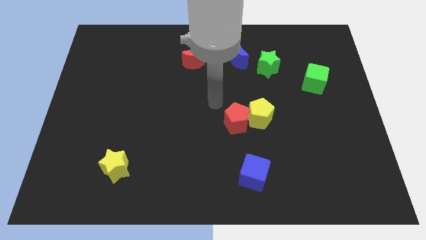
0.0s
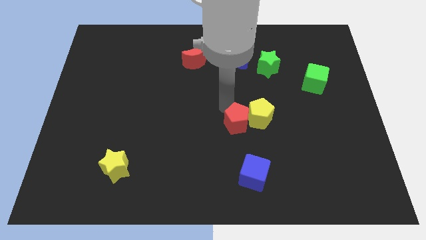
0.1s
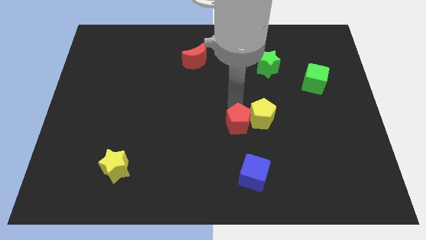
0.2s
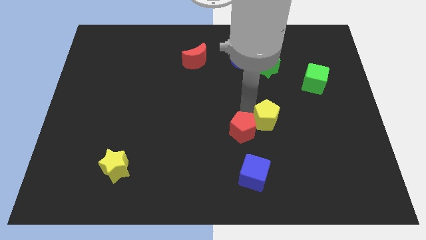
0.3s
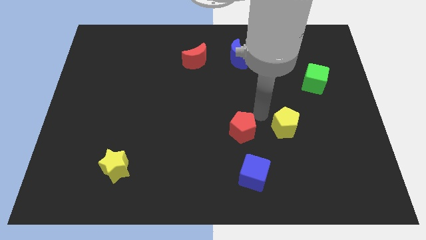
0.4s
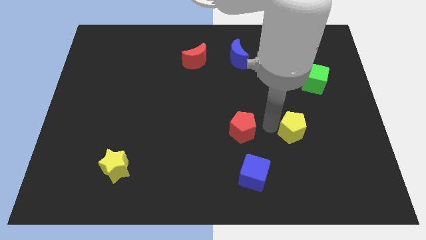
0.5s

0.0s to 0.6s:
move the red pentagon away from the yellow pentagon

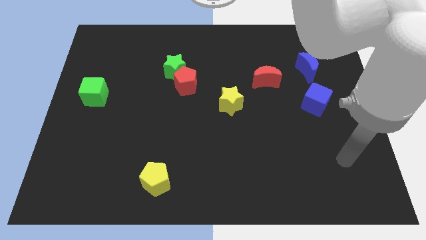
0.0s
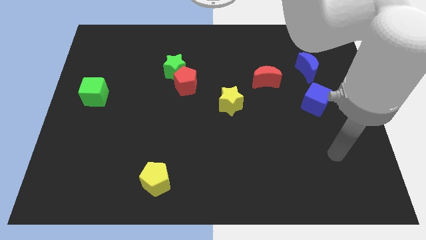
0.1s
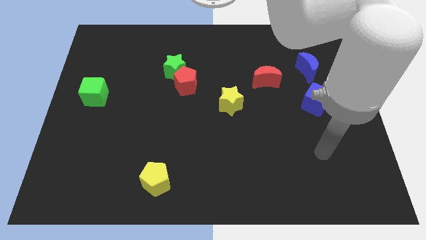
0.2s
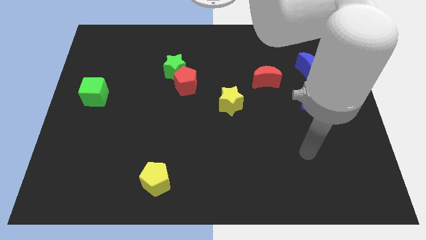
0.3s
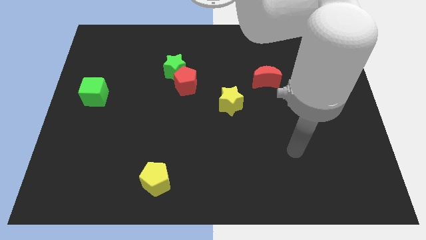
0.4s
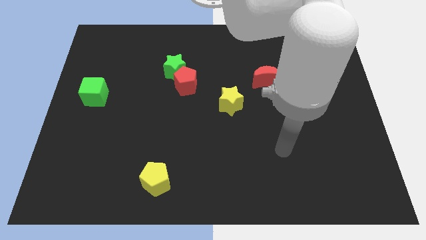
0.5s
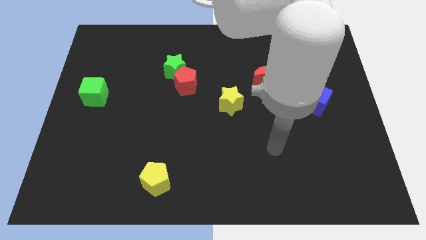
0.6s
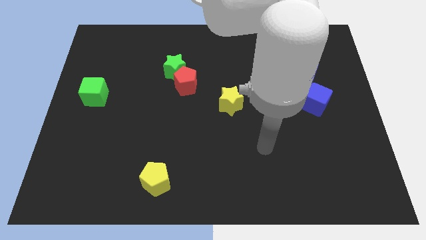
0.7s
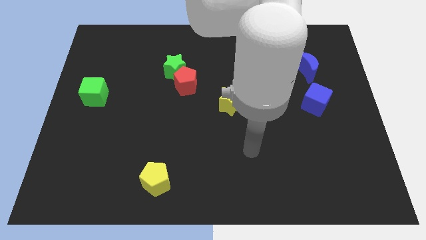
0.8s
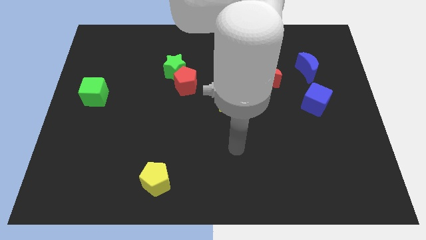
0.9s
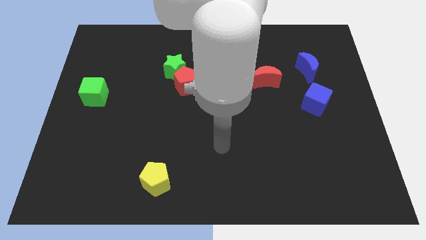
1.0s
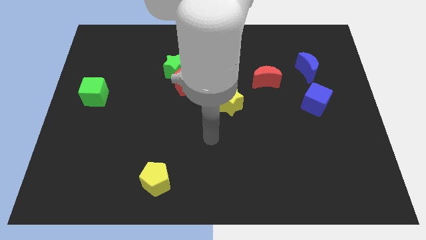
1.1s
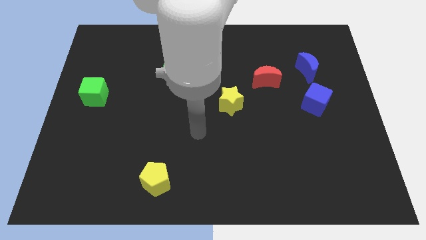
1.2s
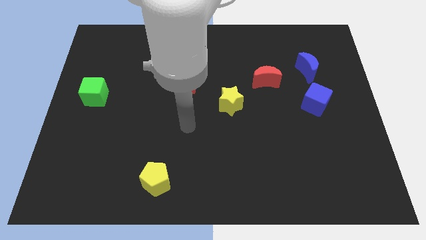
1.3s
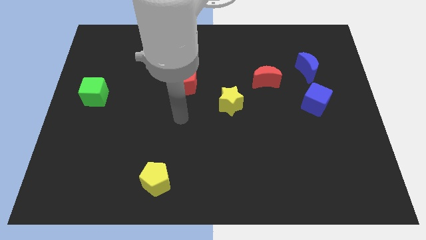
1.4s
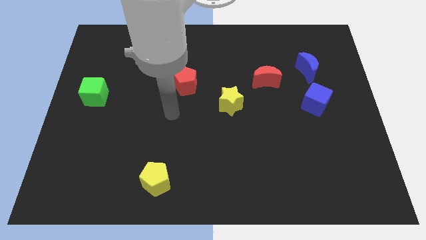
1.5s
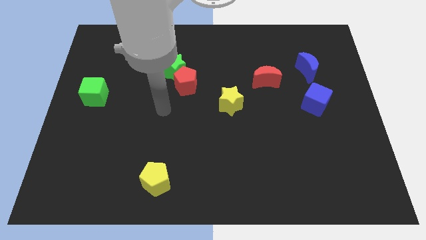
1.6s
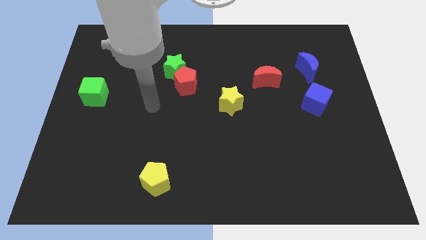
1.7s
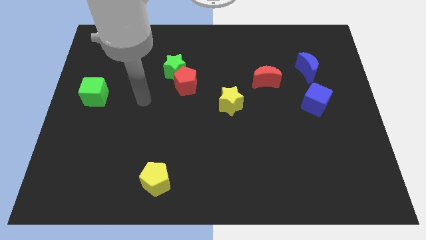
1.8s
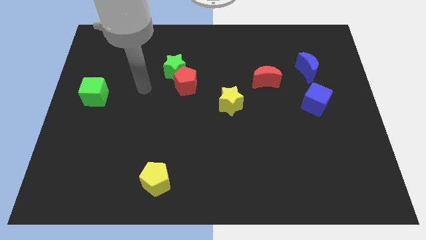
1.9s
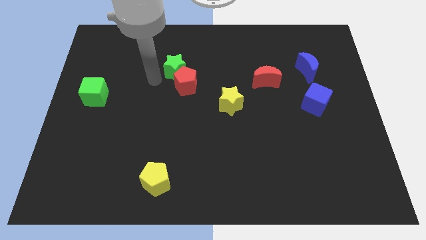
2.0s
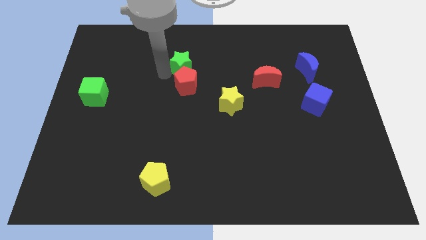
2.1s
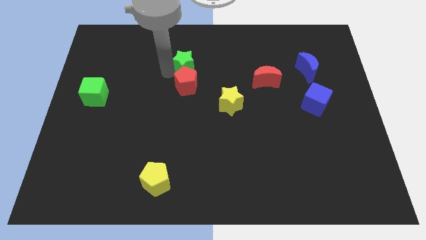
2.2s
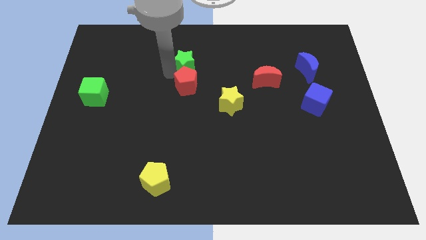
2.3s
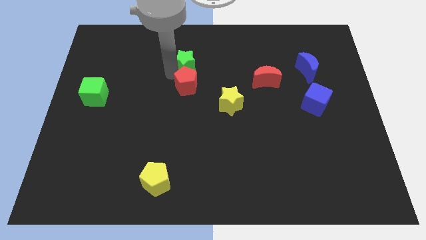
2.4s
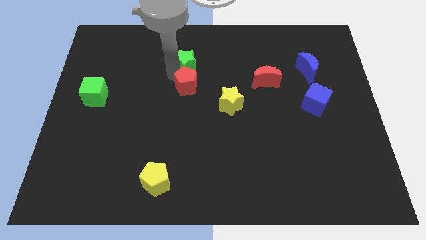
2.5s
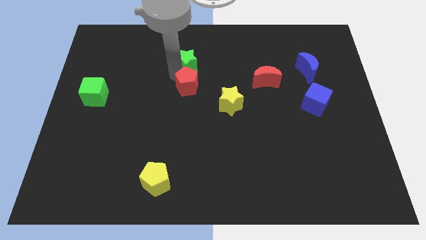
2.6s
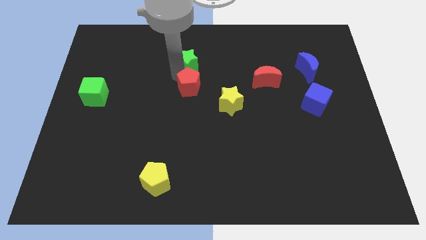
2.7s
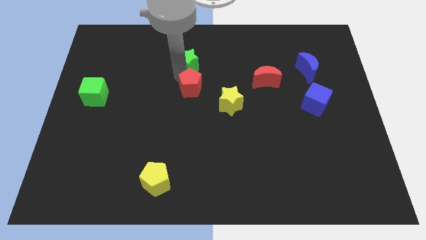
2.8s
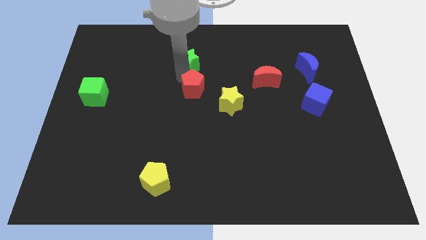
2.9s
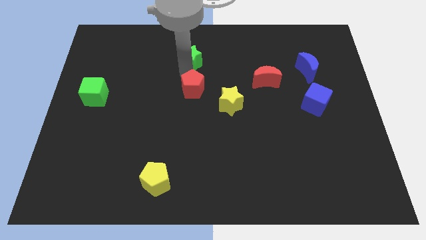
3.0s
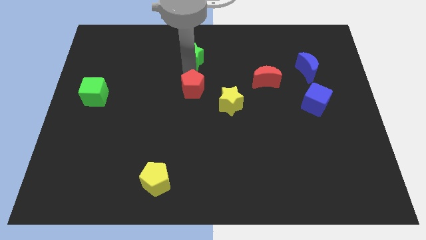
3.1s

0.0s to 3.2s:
separate the red pentagon from the green star

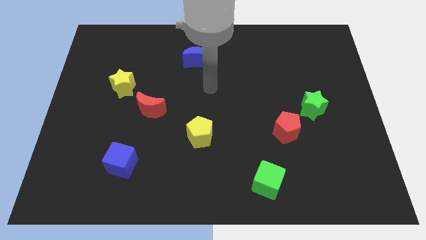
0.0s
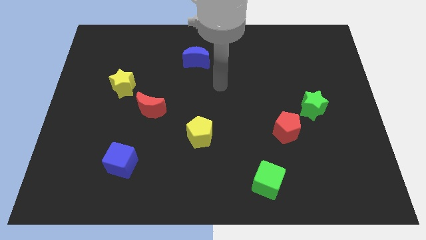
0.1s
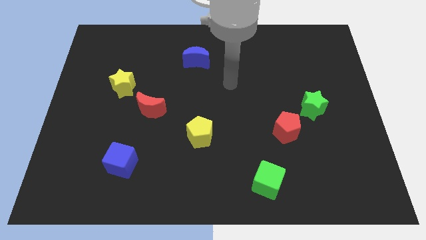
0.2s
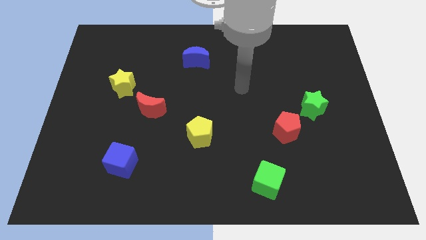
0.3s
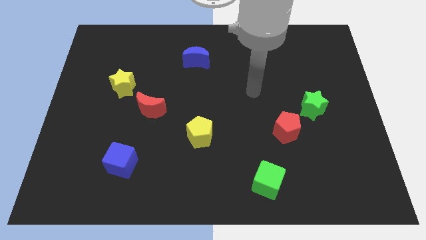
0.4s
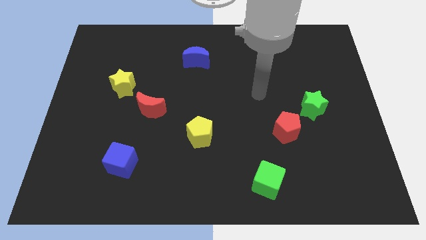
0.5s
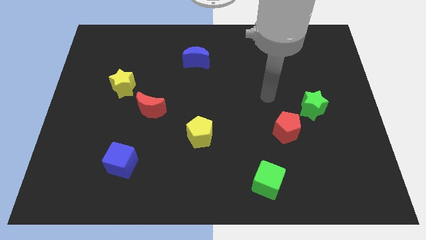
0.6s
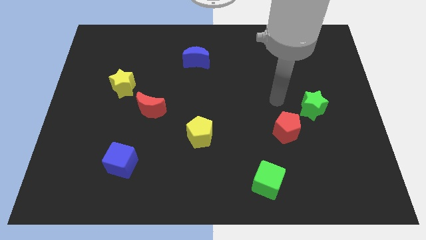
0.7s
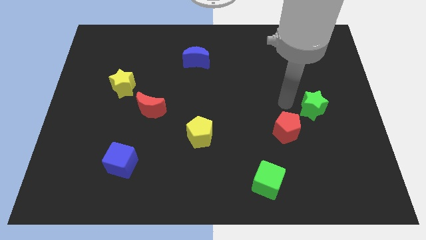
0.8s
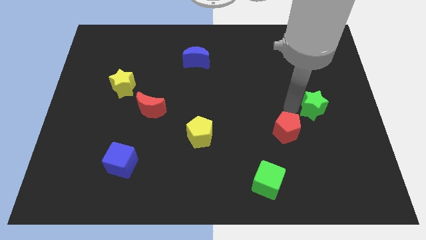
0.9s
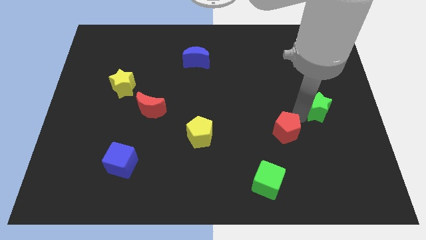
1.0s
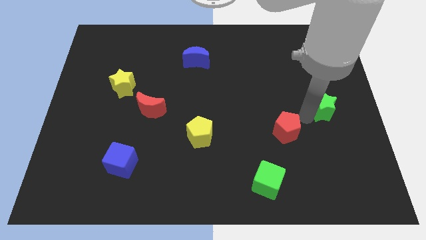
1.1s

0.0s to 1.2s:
move the red pentagon away from the green star

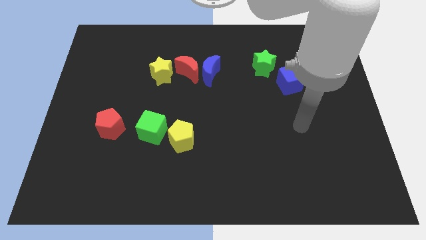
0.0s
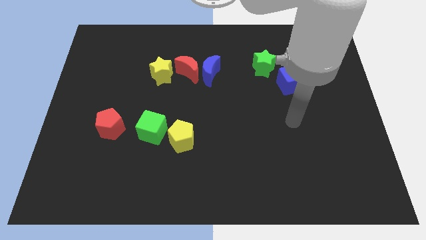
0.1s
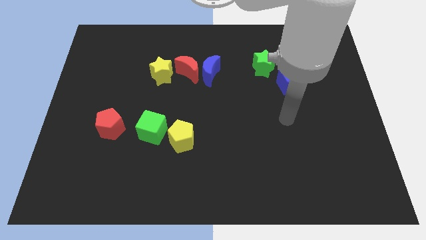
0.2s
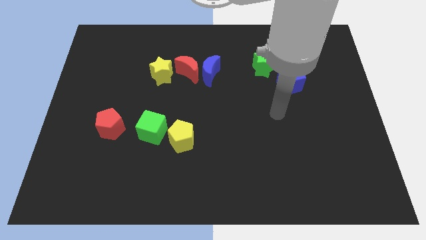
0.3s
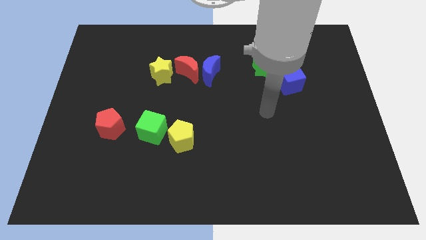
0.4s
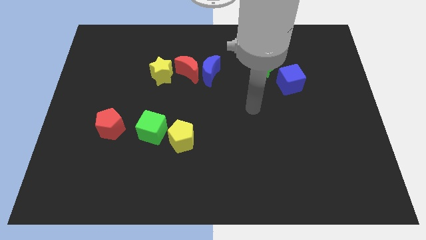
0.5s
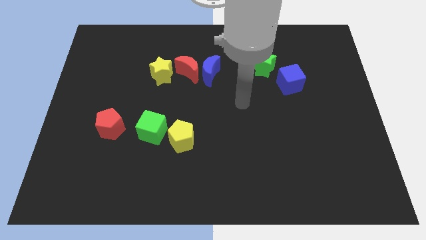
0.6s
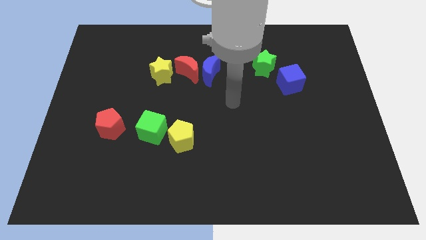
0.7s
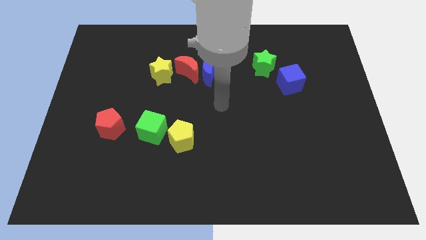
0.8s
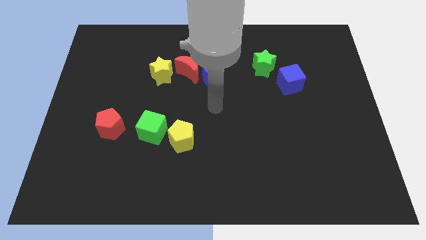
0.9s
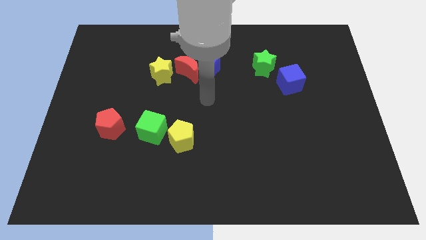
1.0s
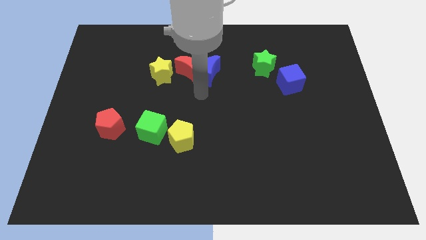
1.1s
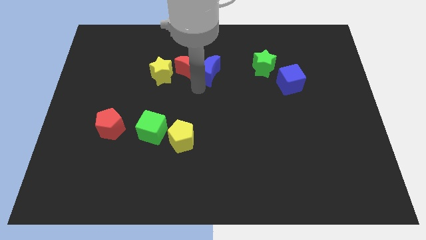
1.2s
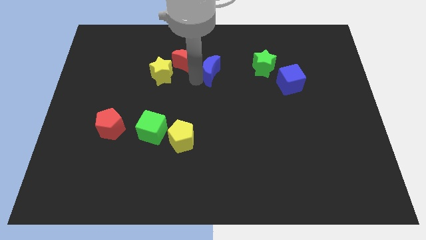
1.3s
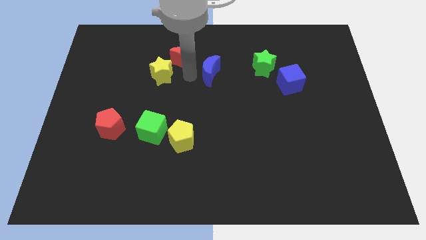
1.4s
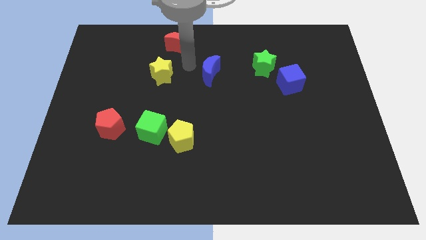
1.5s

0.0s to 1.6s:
separate the blue moon from the red moon

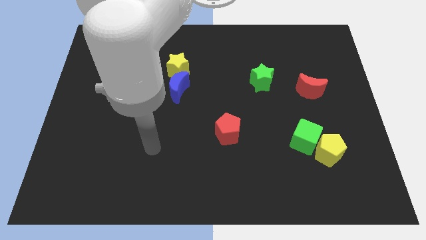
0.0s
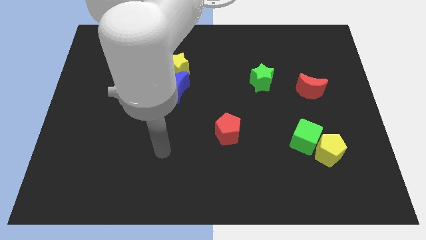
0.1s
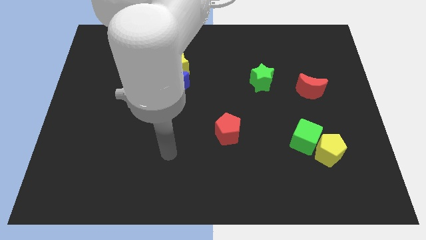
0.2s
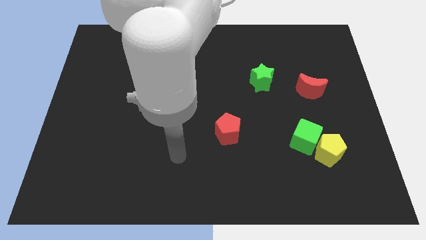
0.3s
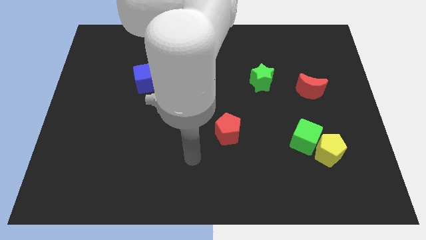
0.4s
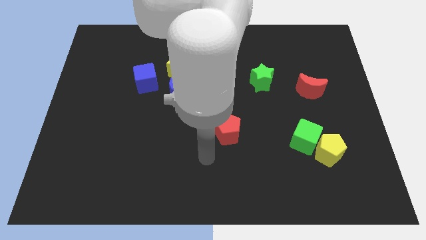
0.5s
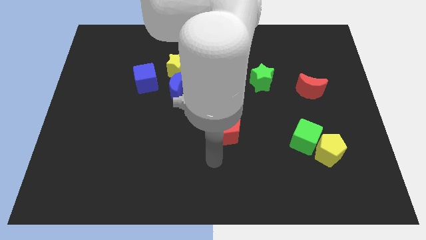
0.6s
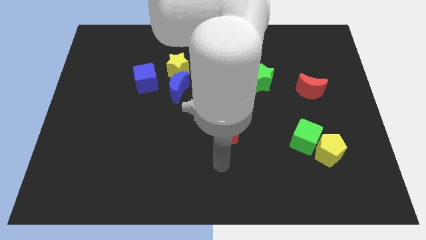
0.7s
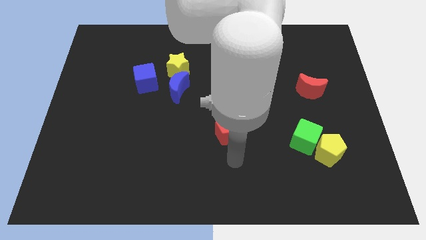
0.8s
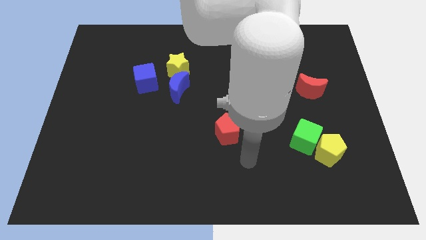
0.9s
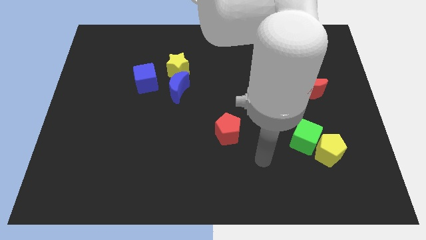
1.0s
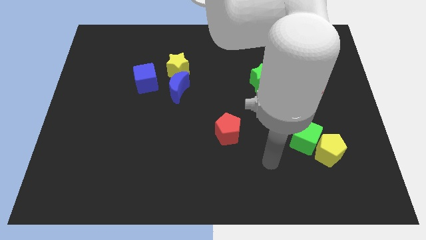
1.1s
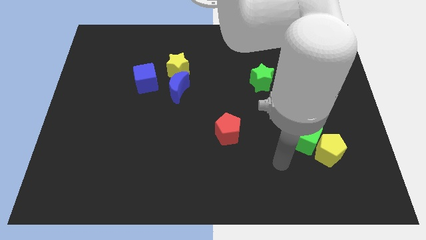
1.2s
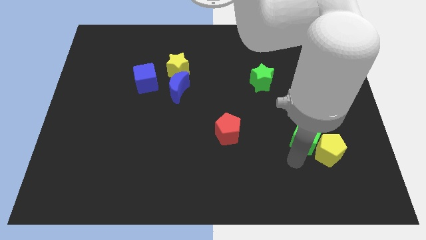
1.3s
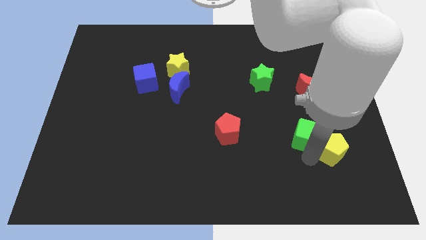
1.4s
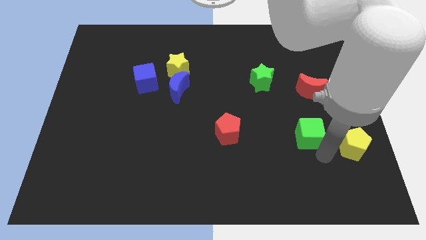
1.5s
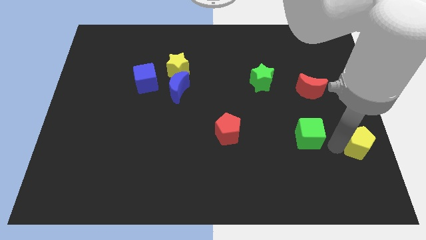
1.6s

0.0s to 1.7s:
separate the green cube from the yellow pentagon

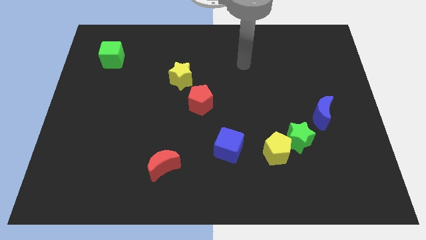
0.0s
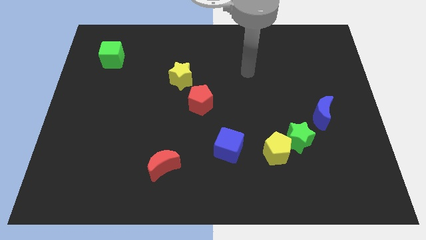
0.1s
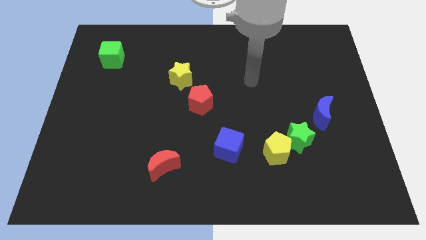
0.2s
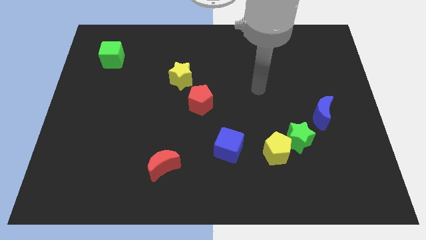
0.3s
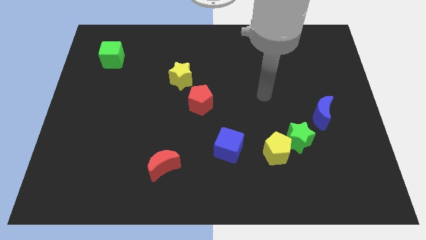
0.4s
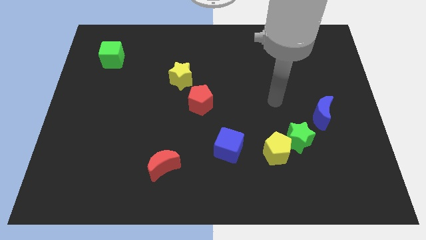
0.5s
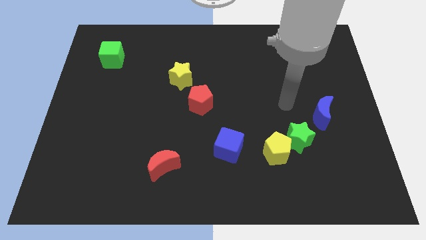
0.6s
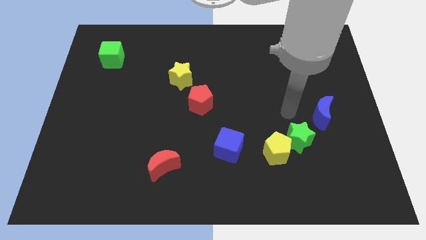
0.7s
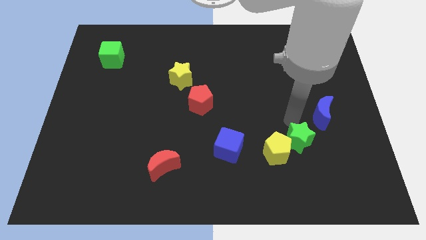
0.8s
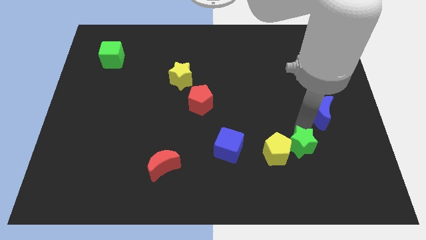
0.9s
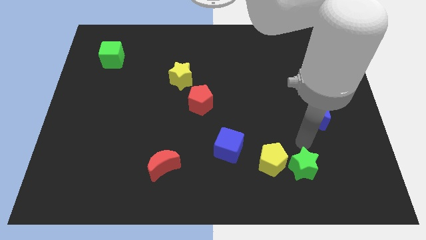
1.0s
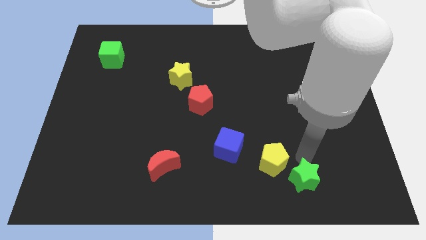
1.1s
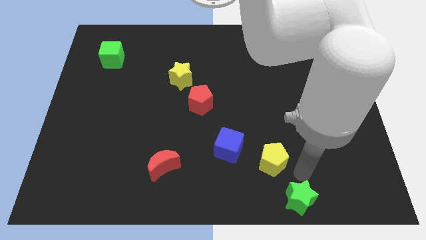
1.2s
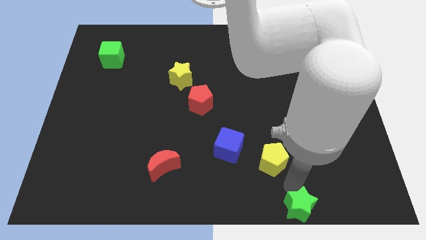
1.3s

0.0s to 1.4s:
pull the yellow pentagon apart from the green star
